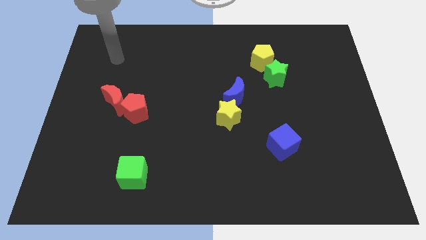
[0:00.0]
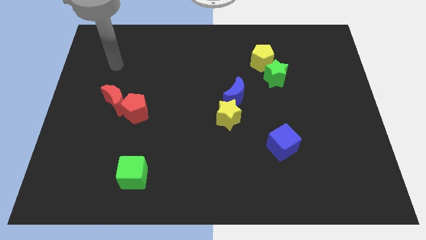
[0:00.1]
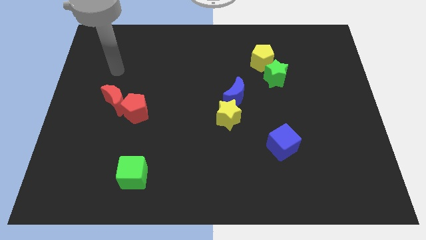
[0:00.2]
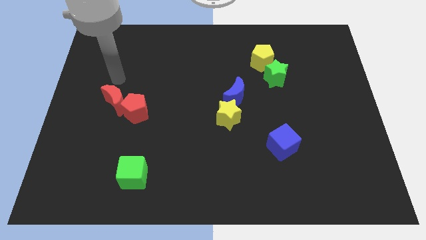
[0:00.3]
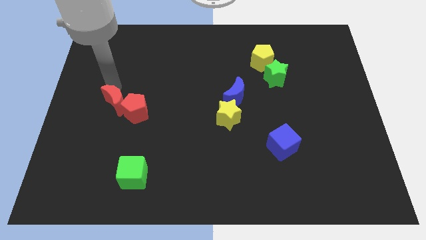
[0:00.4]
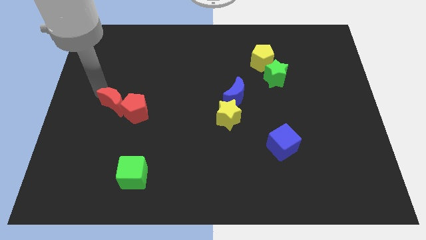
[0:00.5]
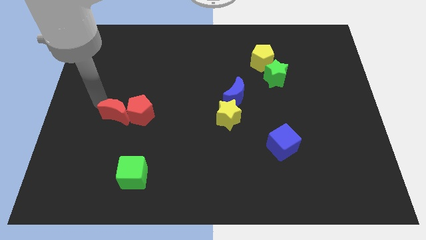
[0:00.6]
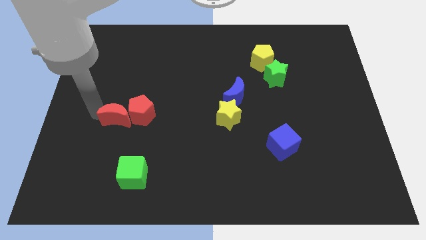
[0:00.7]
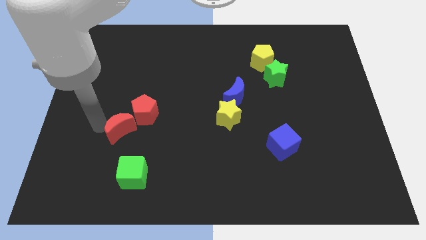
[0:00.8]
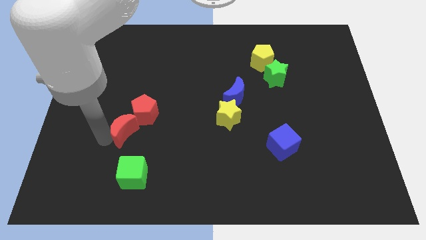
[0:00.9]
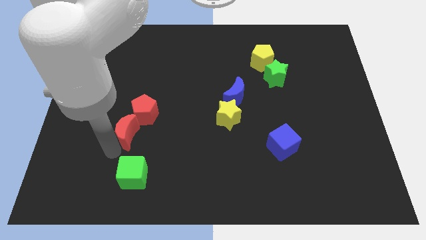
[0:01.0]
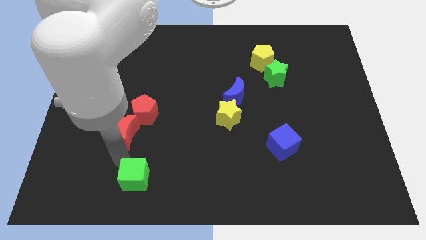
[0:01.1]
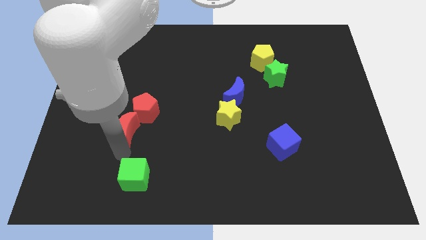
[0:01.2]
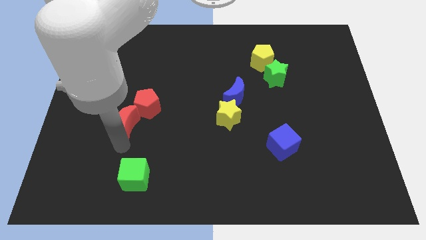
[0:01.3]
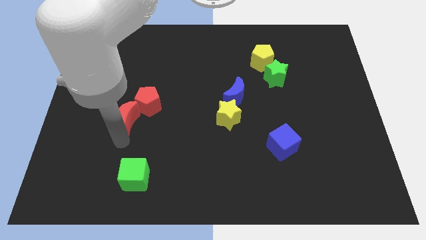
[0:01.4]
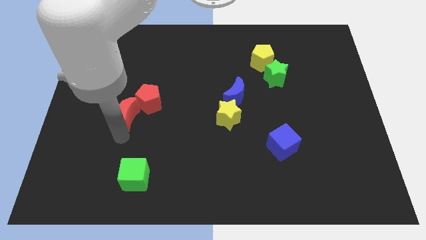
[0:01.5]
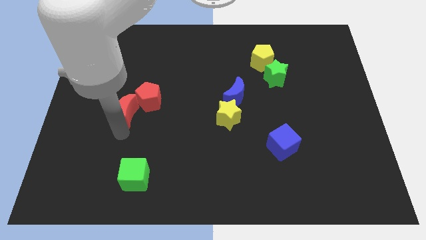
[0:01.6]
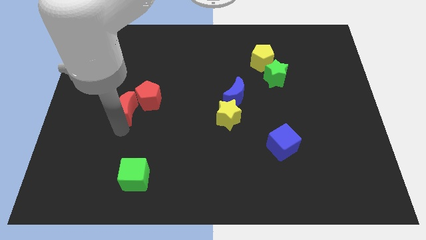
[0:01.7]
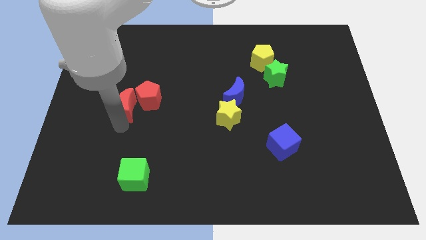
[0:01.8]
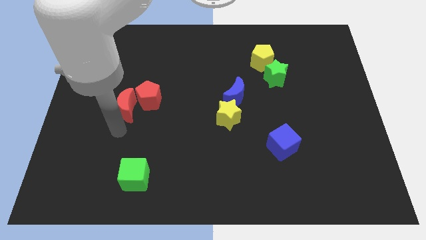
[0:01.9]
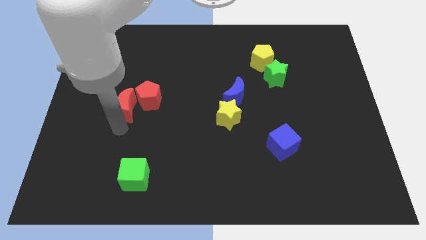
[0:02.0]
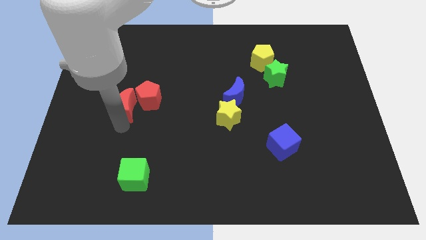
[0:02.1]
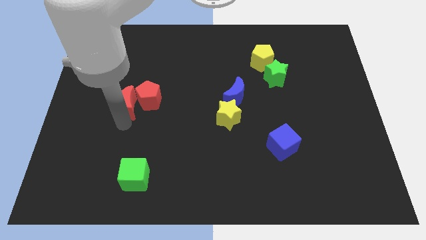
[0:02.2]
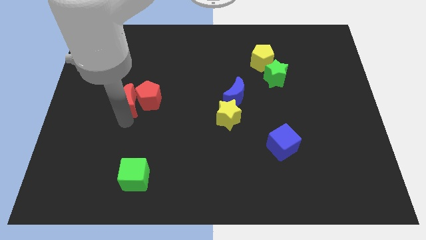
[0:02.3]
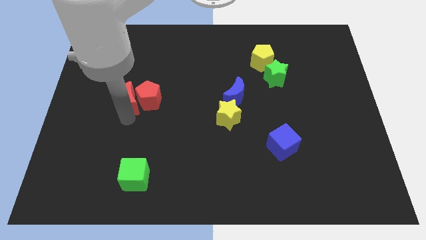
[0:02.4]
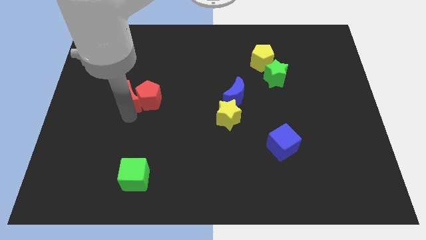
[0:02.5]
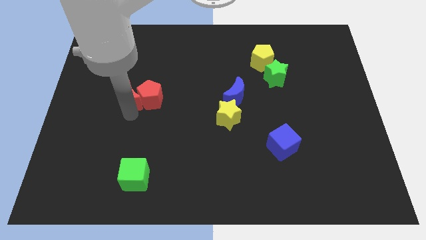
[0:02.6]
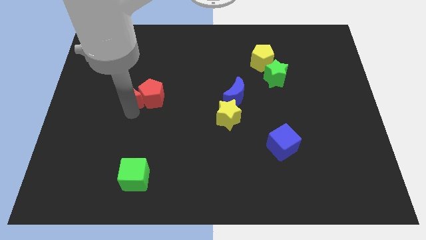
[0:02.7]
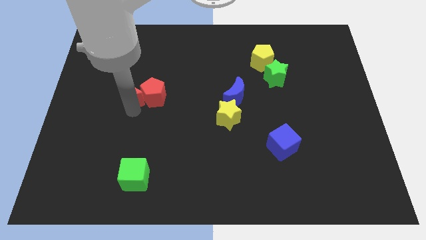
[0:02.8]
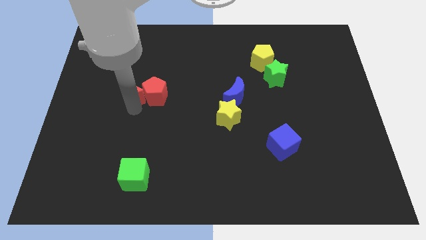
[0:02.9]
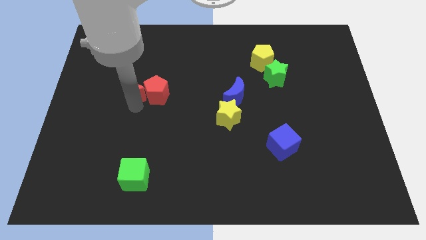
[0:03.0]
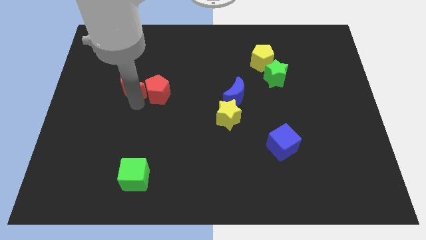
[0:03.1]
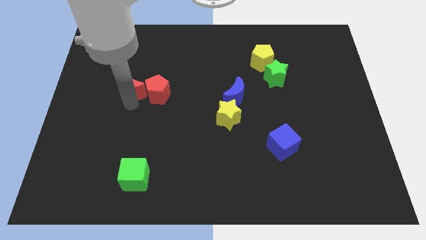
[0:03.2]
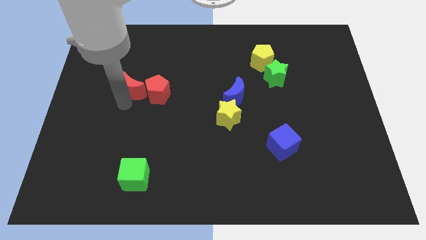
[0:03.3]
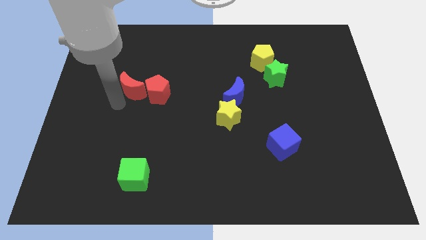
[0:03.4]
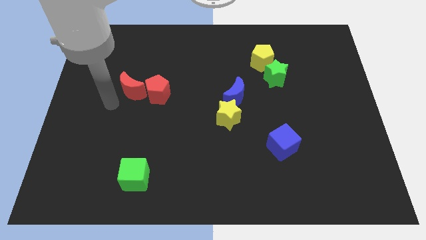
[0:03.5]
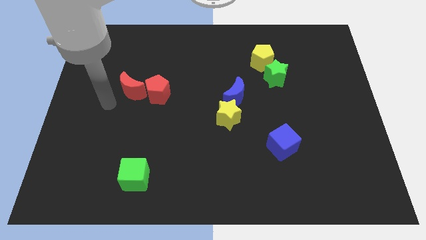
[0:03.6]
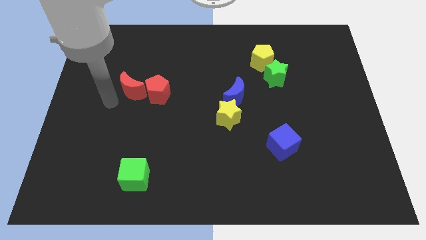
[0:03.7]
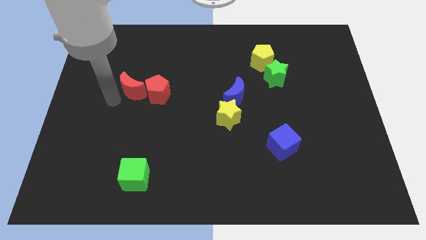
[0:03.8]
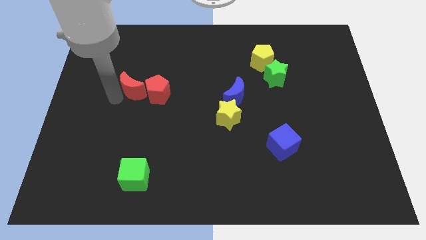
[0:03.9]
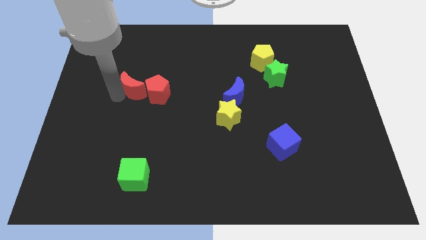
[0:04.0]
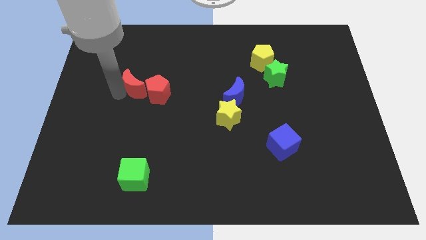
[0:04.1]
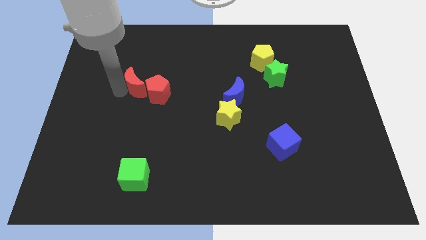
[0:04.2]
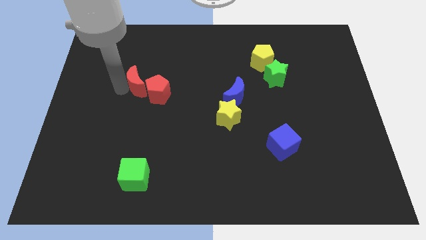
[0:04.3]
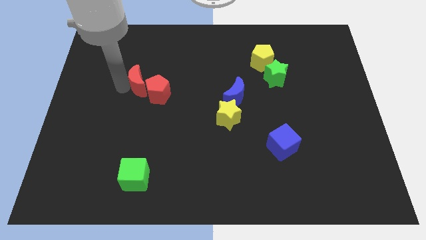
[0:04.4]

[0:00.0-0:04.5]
slightly move the red moon up and right

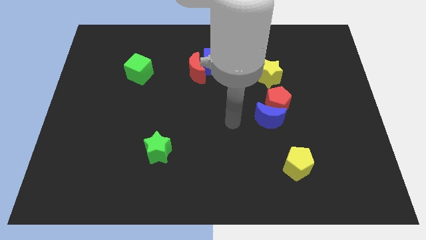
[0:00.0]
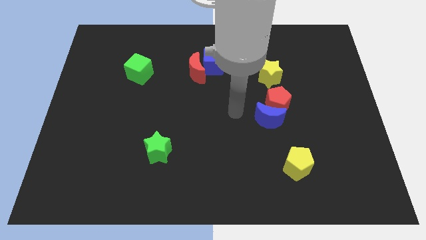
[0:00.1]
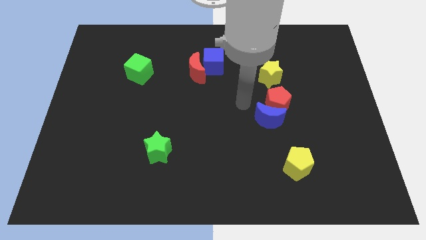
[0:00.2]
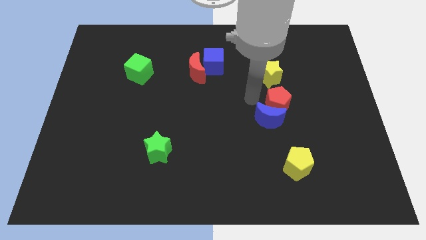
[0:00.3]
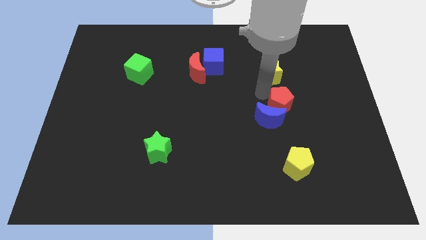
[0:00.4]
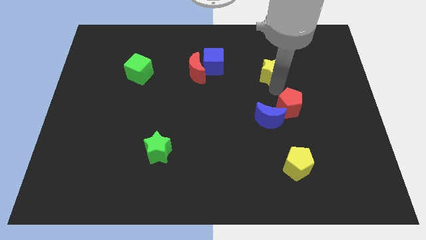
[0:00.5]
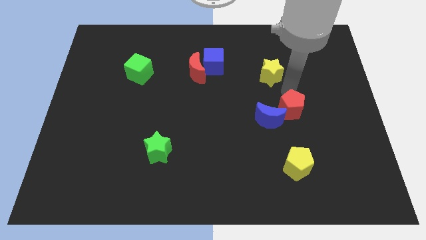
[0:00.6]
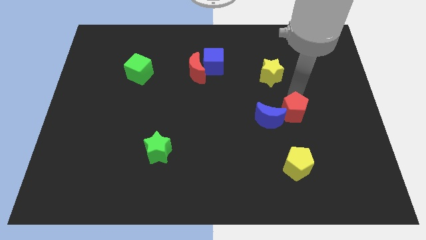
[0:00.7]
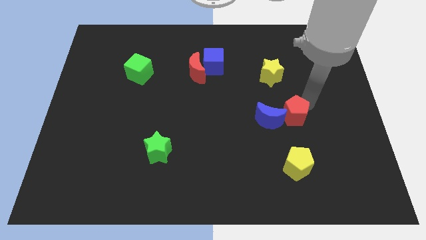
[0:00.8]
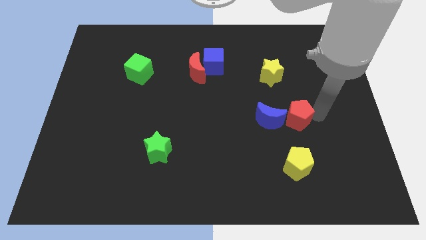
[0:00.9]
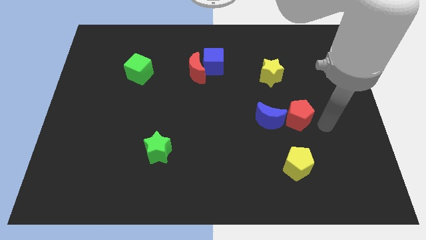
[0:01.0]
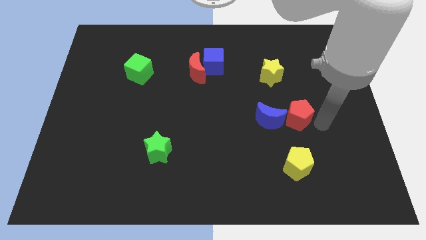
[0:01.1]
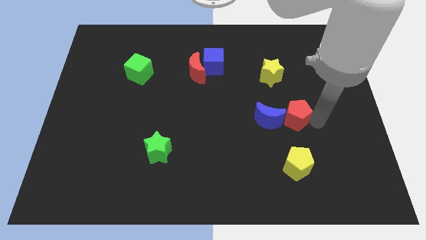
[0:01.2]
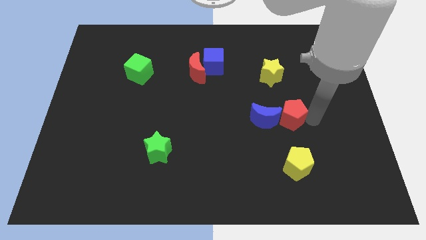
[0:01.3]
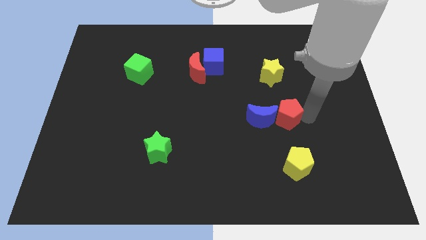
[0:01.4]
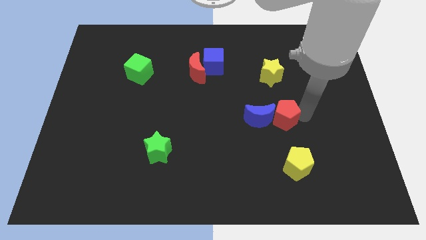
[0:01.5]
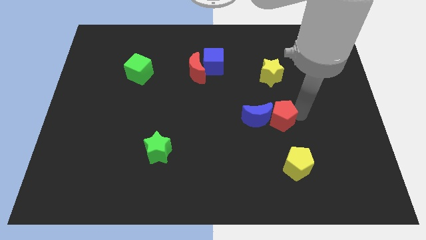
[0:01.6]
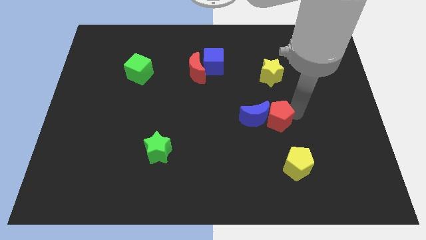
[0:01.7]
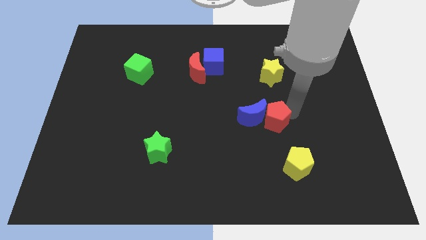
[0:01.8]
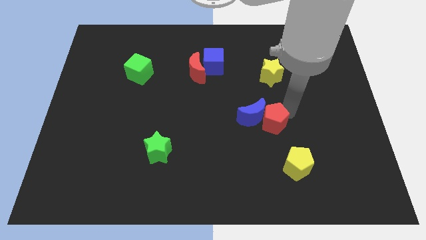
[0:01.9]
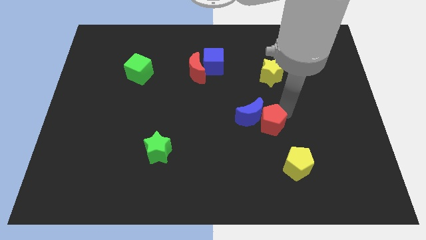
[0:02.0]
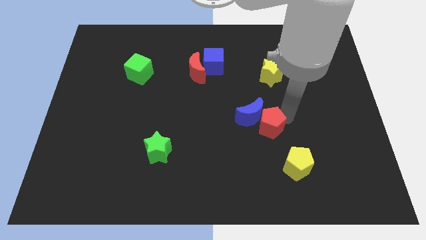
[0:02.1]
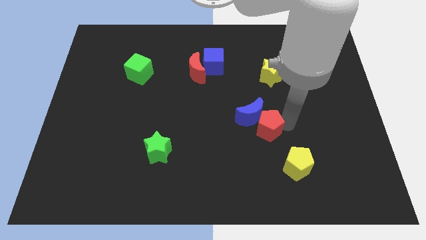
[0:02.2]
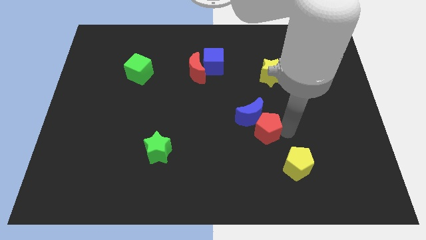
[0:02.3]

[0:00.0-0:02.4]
slide the red pentagon downwards and to the left diagonally a little

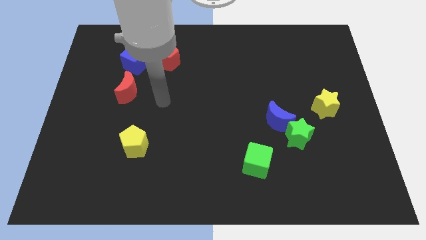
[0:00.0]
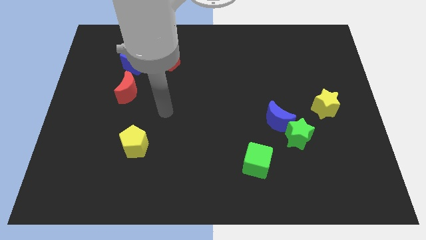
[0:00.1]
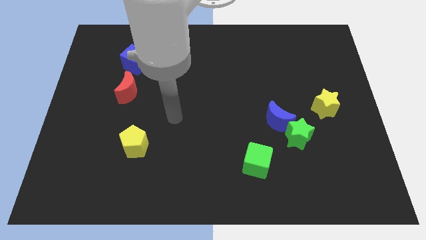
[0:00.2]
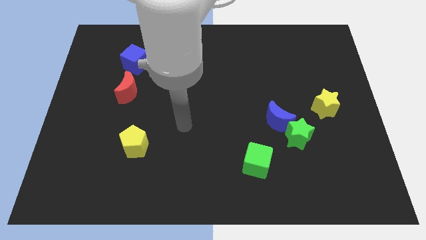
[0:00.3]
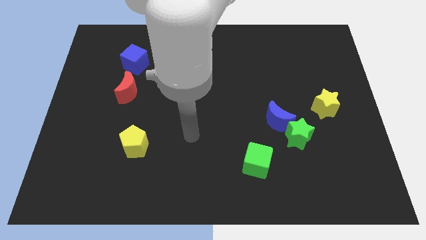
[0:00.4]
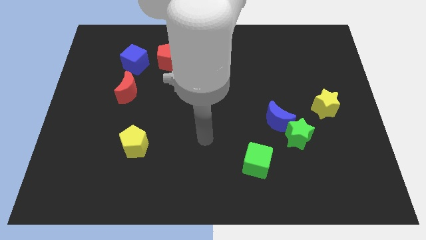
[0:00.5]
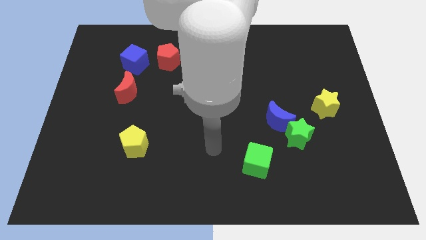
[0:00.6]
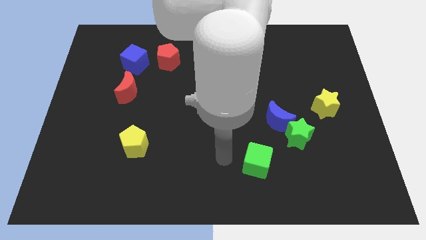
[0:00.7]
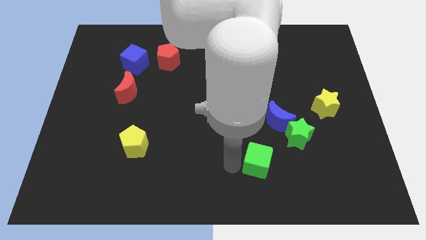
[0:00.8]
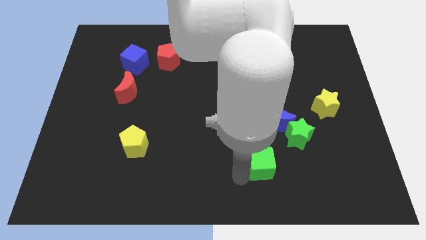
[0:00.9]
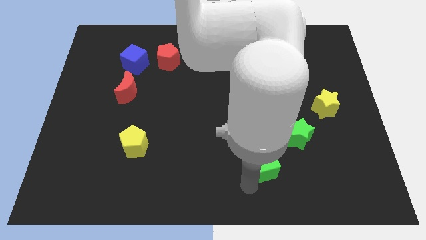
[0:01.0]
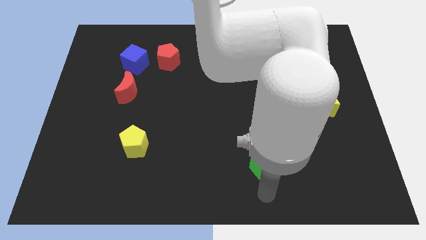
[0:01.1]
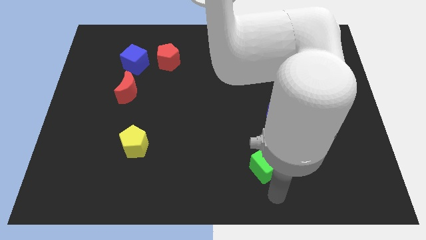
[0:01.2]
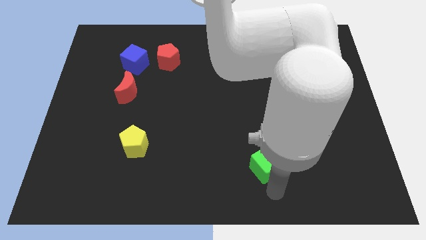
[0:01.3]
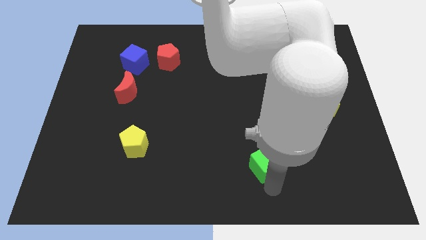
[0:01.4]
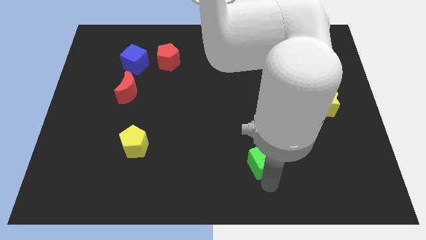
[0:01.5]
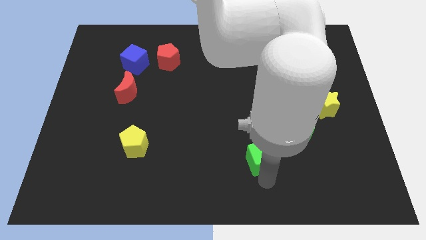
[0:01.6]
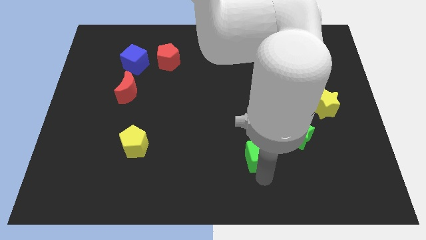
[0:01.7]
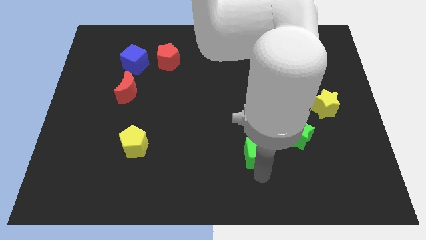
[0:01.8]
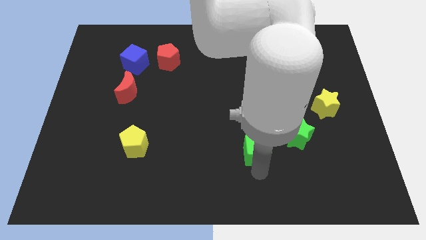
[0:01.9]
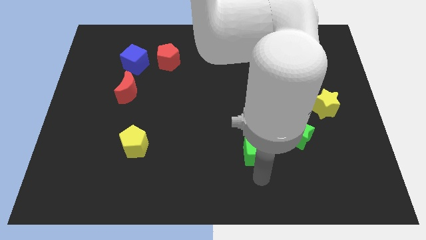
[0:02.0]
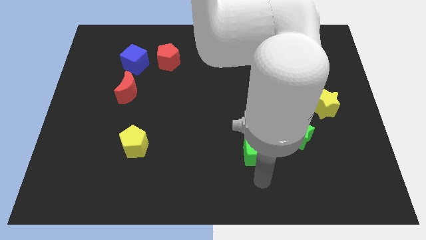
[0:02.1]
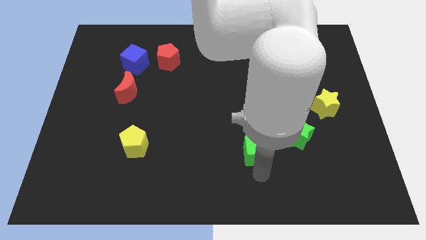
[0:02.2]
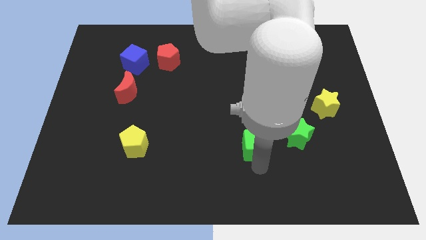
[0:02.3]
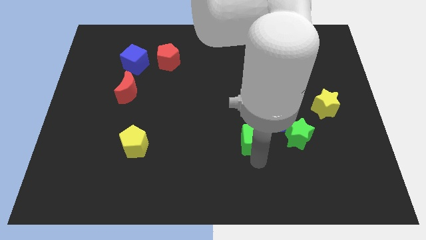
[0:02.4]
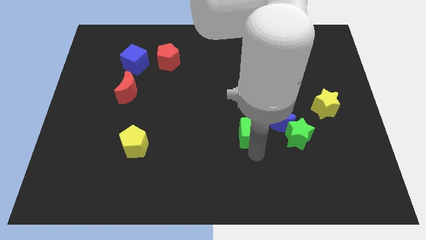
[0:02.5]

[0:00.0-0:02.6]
slightly slide the green cube up
